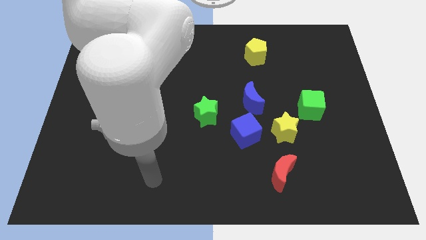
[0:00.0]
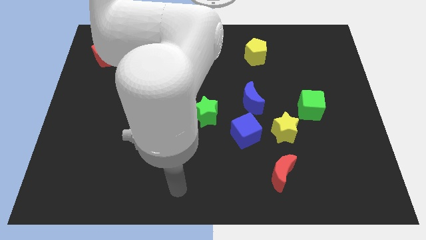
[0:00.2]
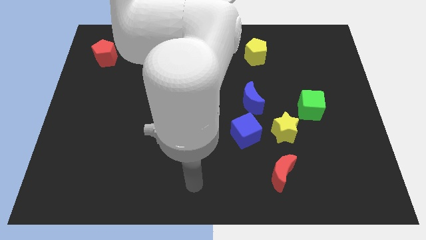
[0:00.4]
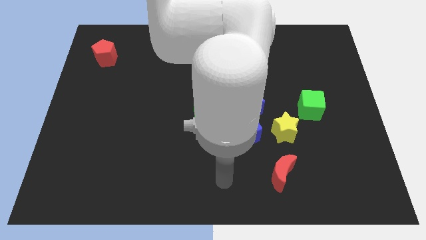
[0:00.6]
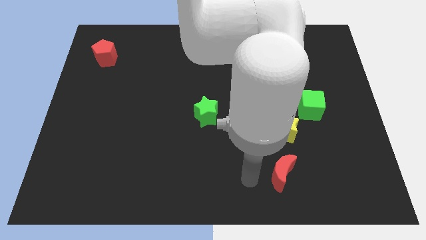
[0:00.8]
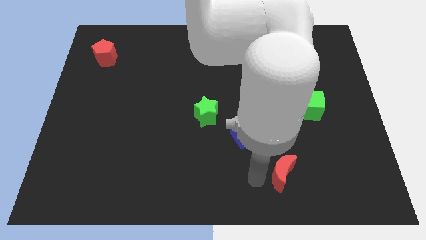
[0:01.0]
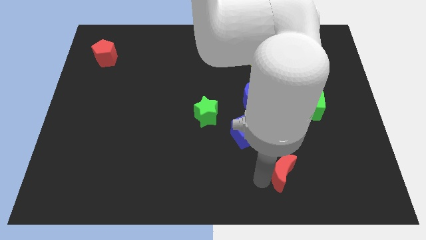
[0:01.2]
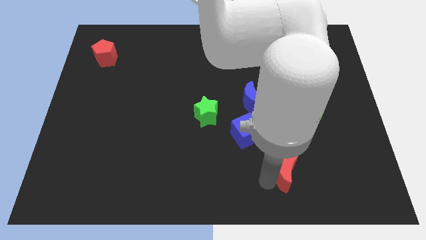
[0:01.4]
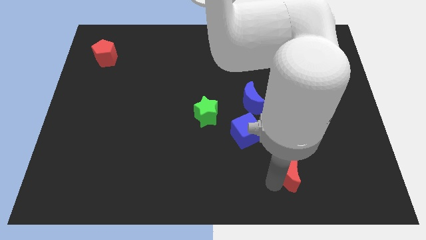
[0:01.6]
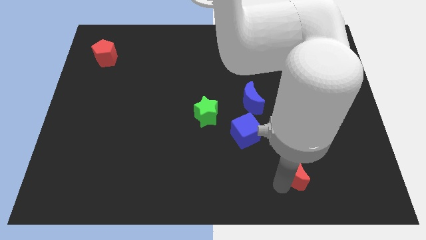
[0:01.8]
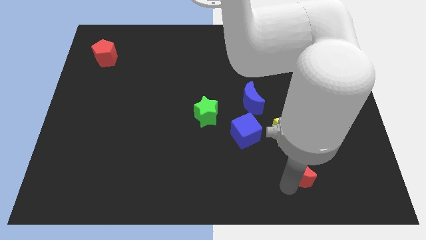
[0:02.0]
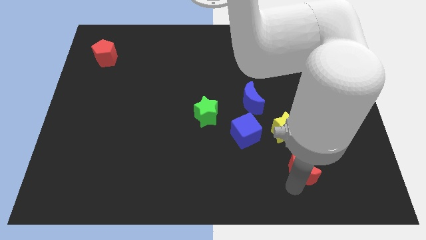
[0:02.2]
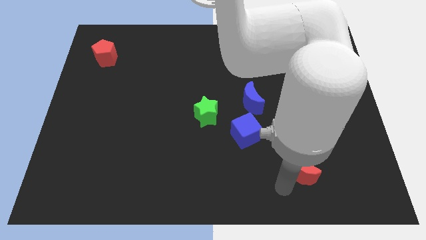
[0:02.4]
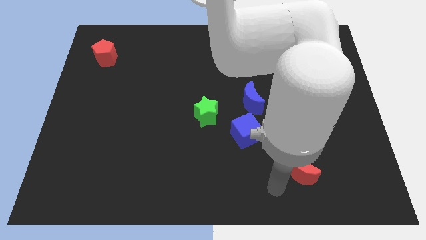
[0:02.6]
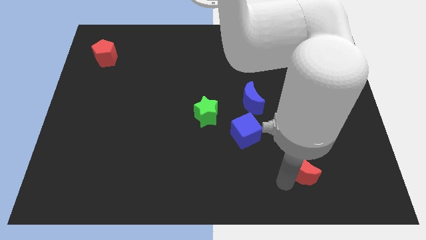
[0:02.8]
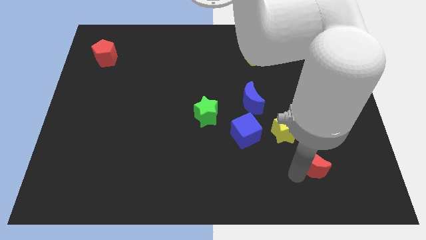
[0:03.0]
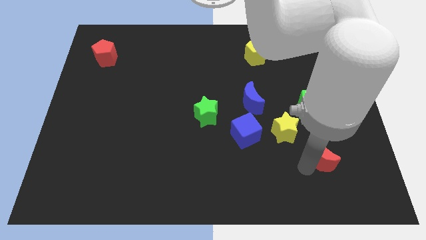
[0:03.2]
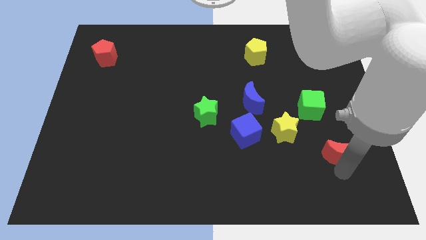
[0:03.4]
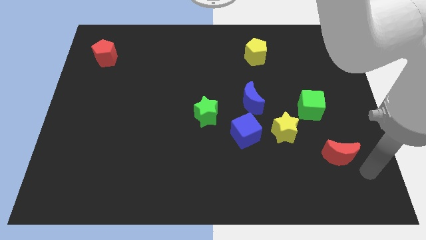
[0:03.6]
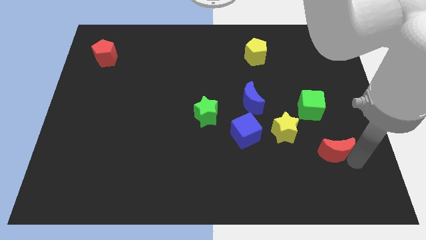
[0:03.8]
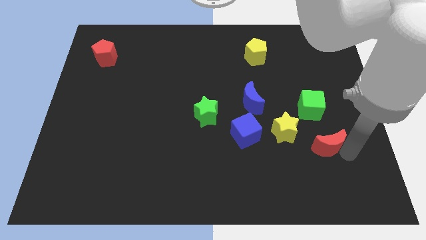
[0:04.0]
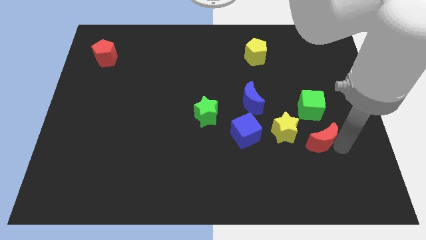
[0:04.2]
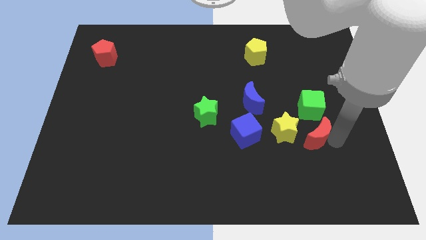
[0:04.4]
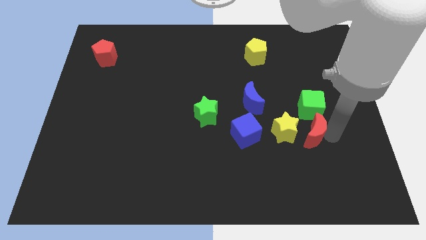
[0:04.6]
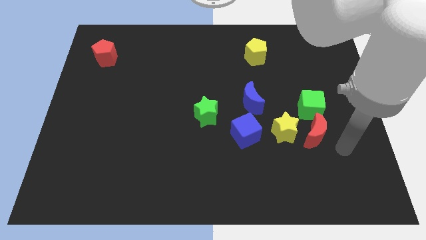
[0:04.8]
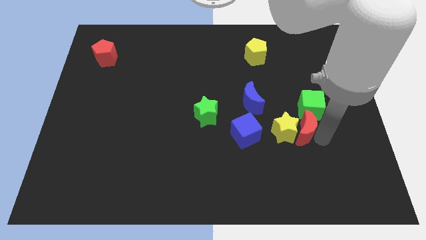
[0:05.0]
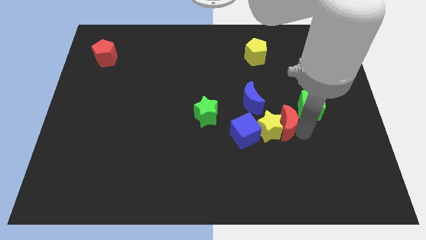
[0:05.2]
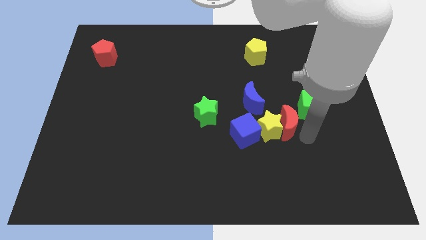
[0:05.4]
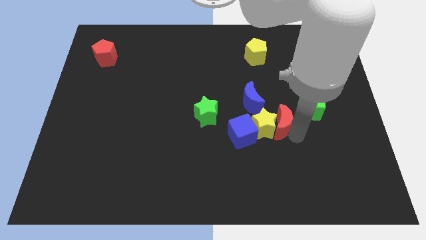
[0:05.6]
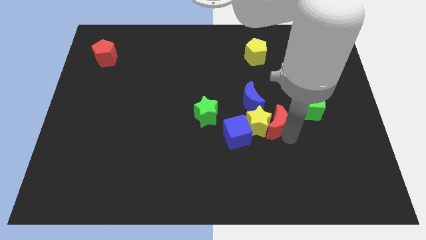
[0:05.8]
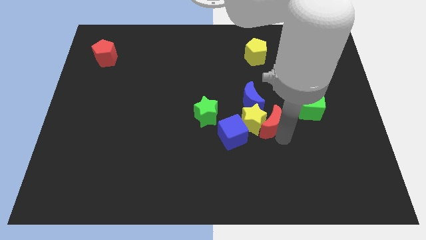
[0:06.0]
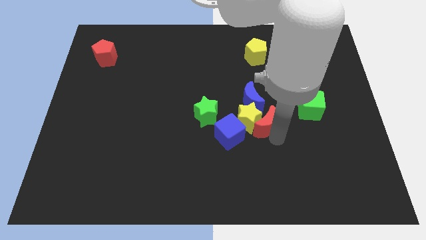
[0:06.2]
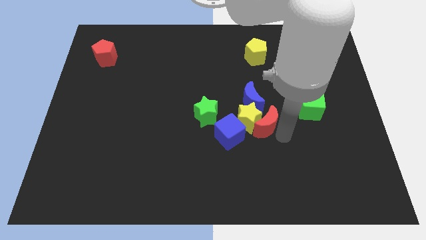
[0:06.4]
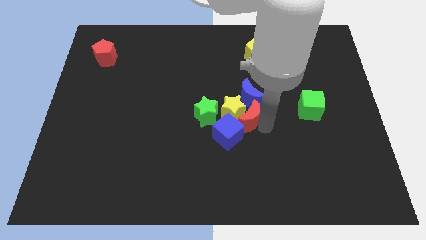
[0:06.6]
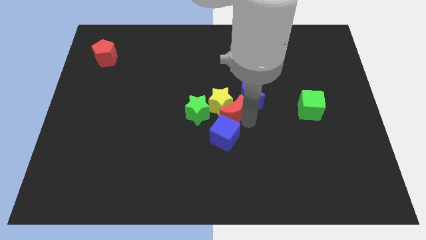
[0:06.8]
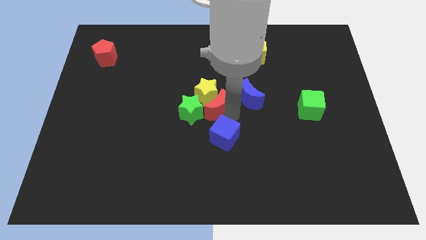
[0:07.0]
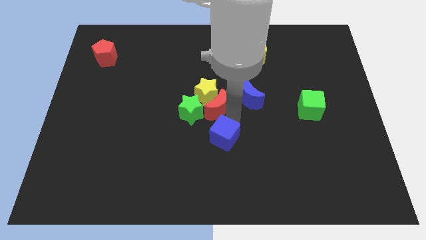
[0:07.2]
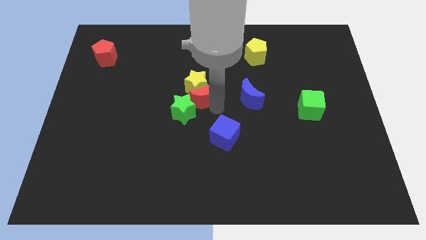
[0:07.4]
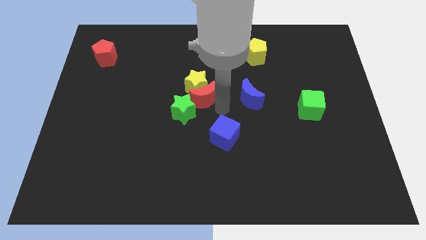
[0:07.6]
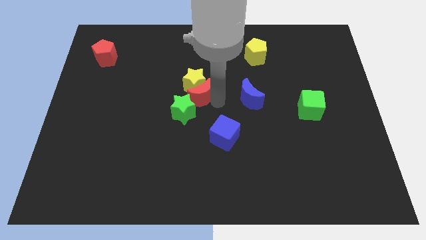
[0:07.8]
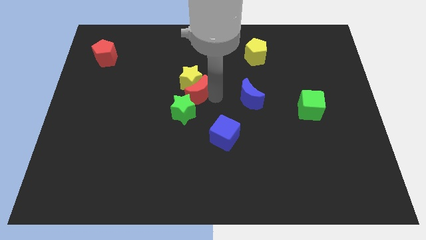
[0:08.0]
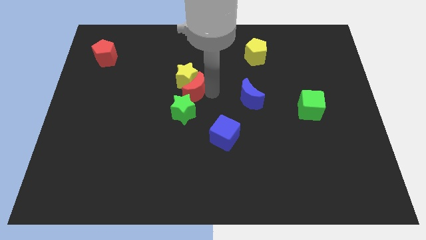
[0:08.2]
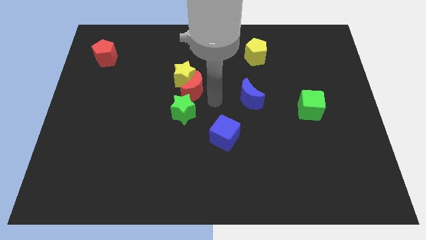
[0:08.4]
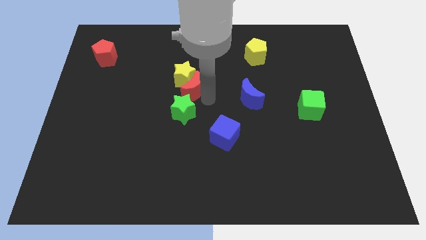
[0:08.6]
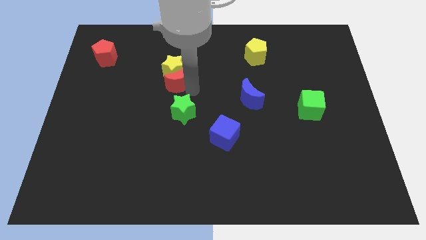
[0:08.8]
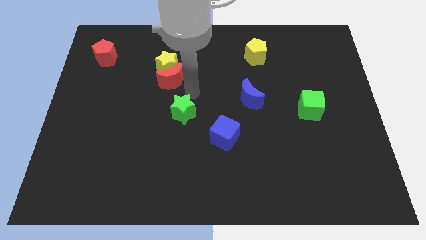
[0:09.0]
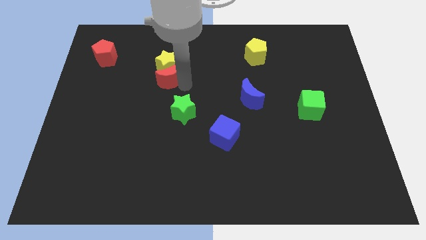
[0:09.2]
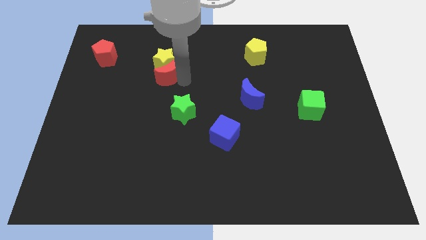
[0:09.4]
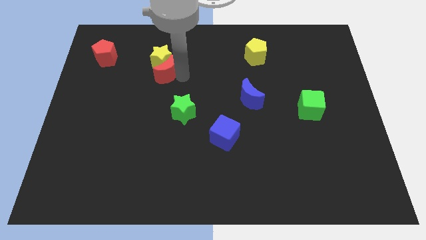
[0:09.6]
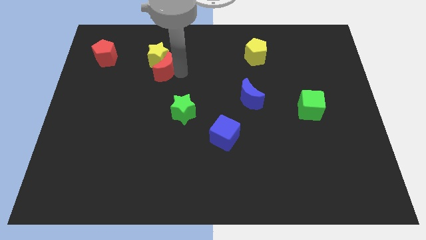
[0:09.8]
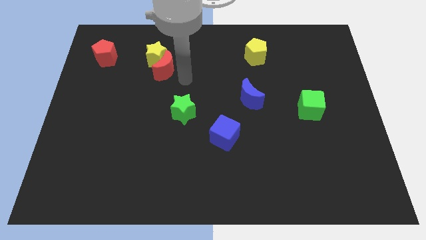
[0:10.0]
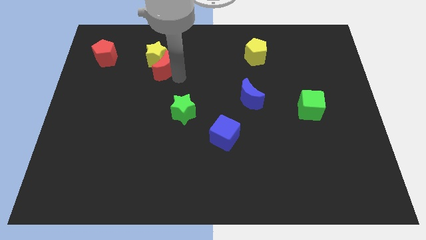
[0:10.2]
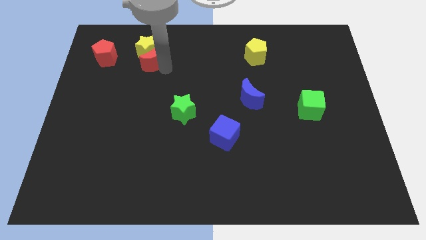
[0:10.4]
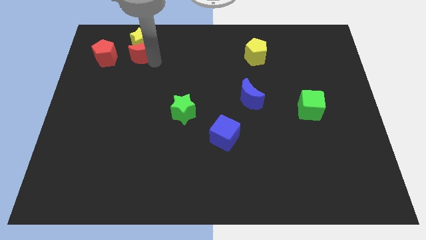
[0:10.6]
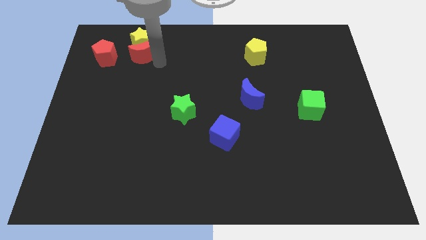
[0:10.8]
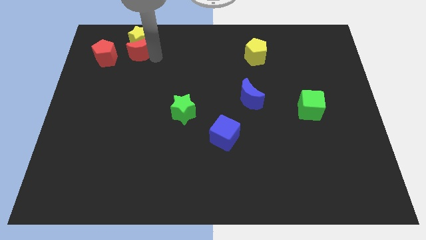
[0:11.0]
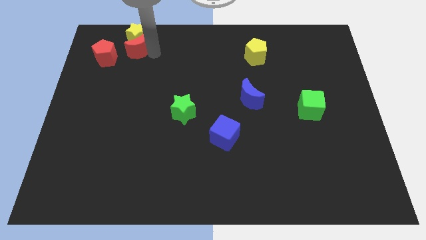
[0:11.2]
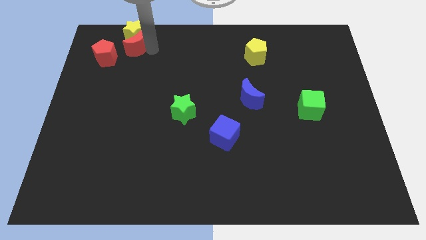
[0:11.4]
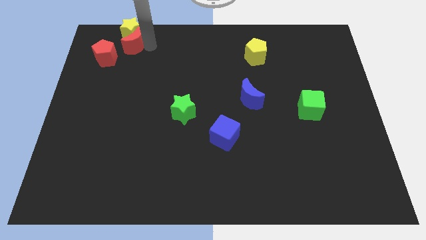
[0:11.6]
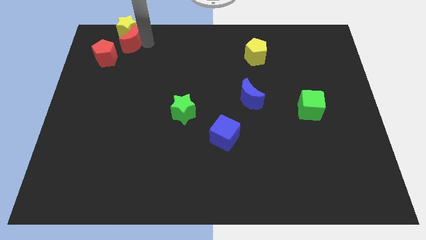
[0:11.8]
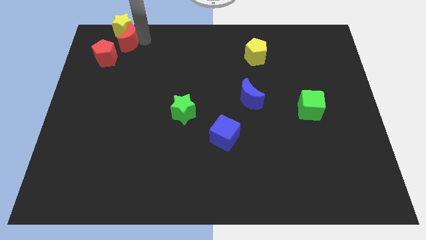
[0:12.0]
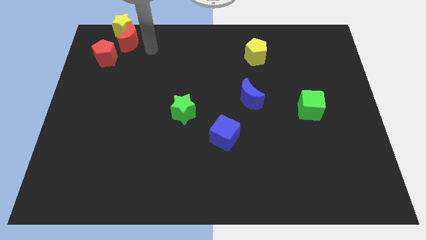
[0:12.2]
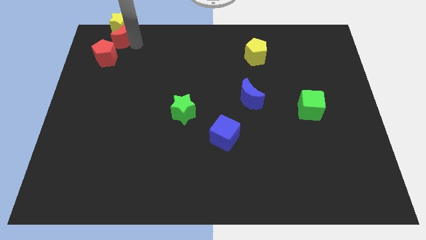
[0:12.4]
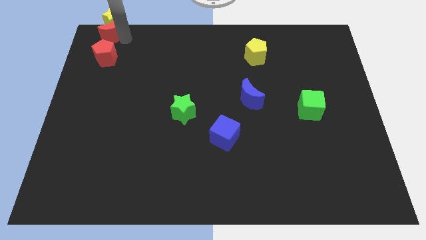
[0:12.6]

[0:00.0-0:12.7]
move the red moon to the top left of the board
